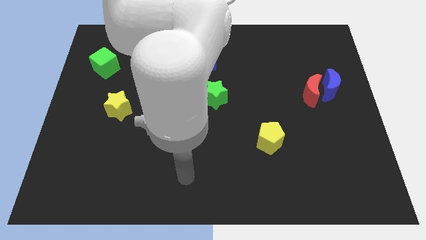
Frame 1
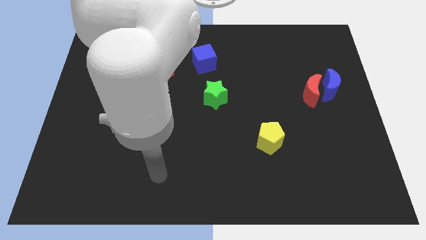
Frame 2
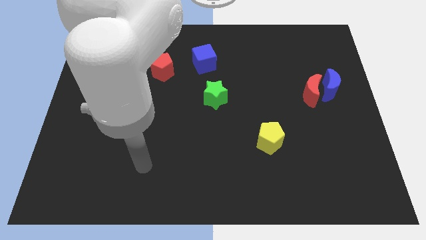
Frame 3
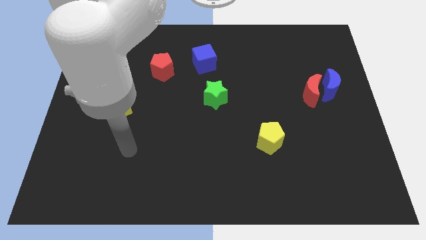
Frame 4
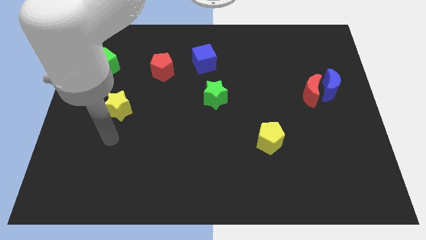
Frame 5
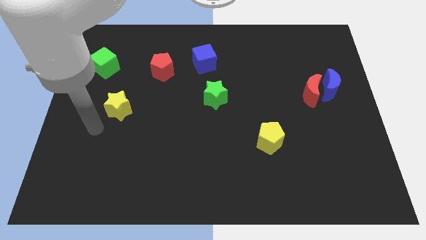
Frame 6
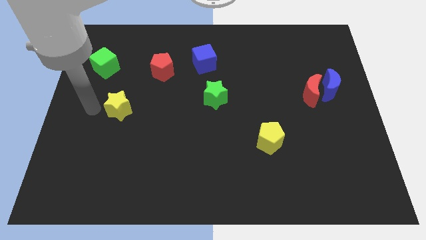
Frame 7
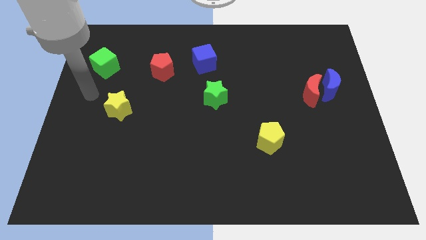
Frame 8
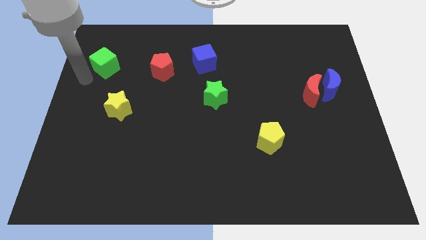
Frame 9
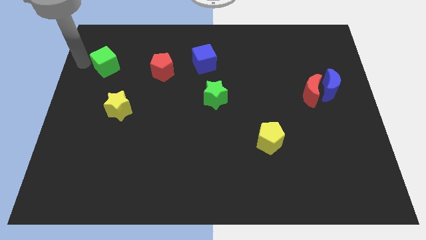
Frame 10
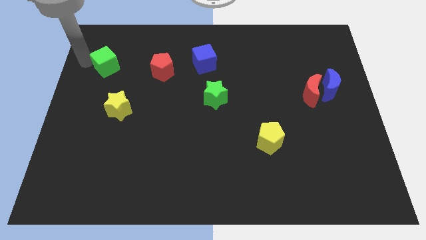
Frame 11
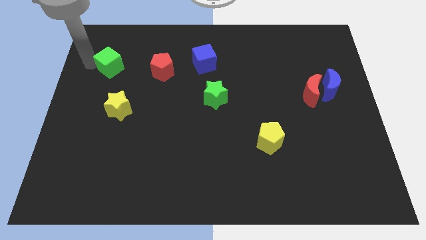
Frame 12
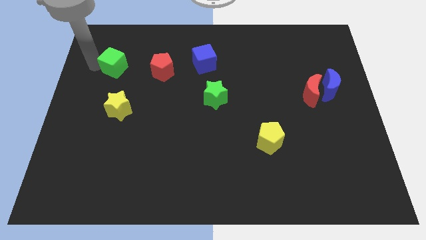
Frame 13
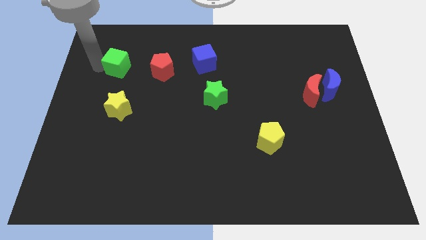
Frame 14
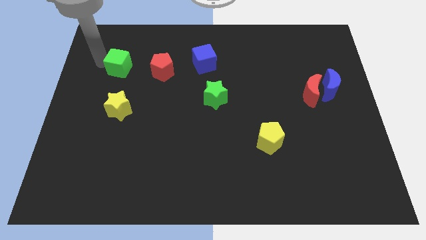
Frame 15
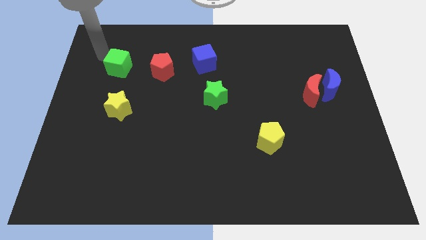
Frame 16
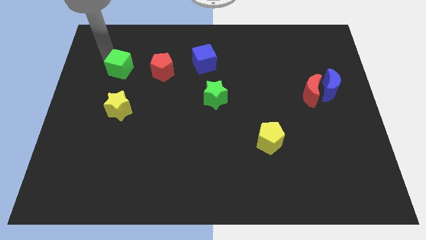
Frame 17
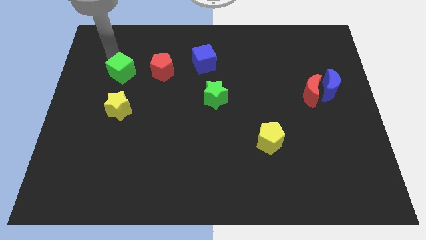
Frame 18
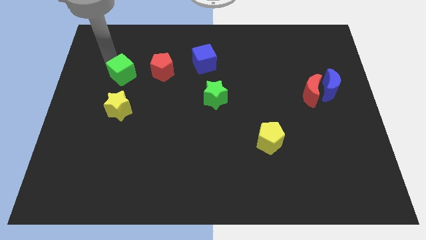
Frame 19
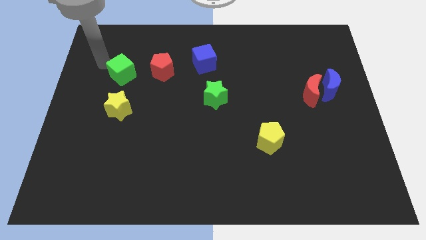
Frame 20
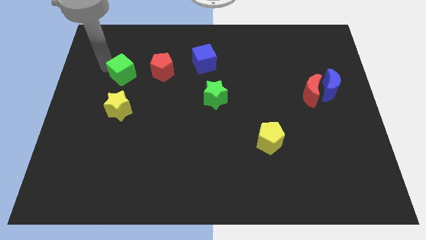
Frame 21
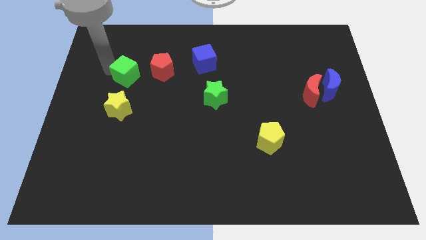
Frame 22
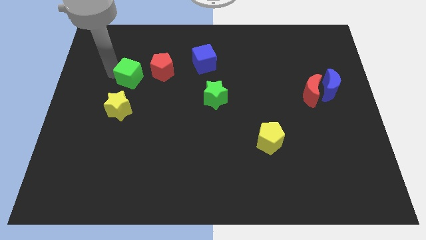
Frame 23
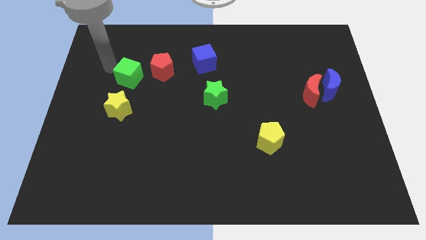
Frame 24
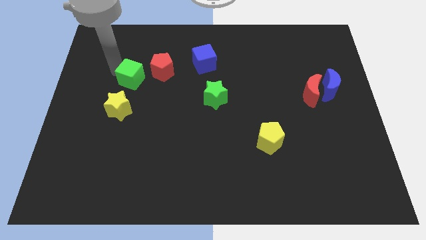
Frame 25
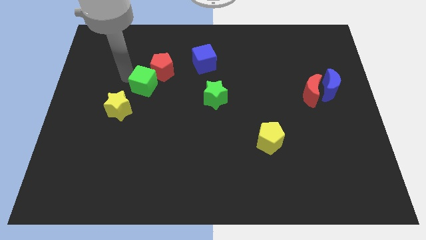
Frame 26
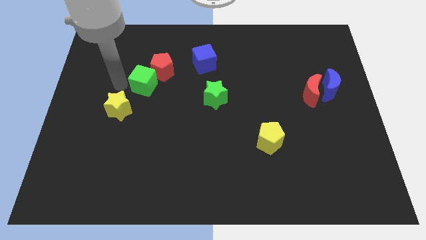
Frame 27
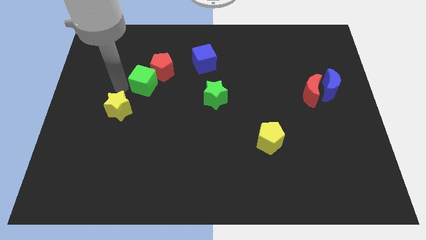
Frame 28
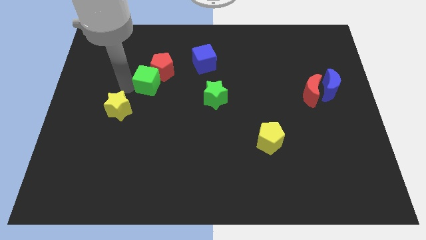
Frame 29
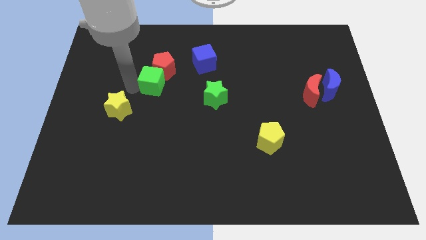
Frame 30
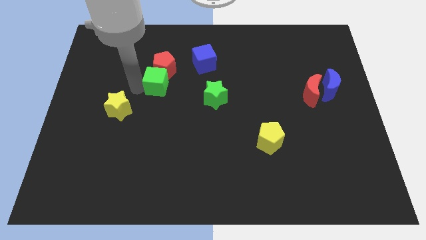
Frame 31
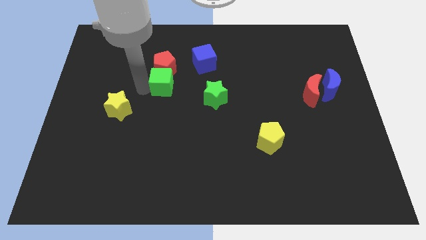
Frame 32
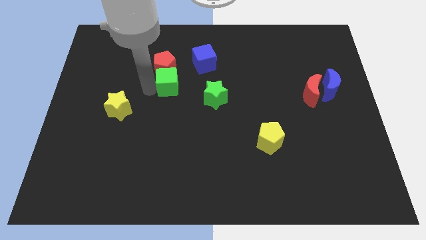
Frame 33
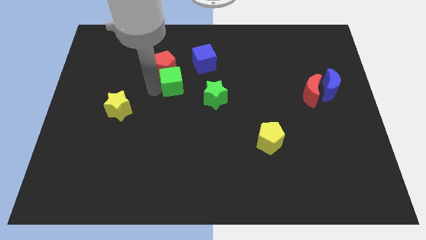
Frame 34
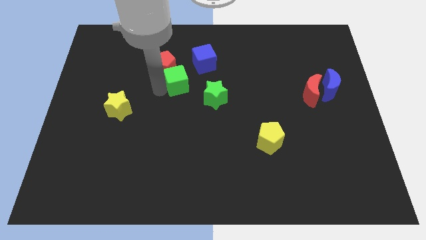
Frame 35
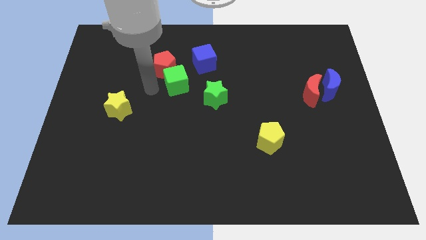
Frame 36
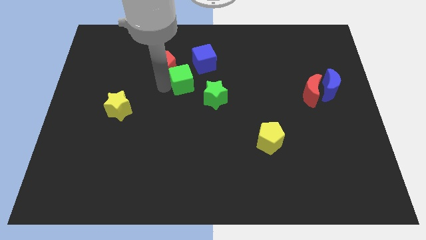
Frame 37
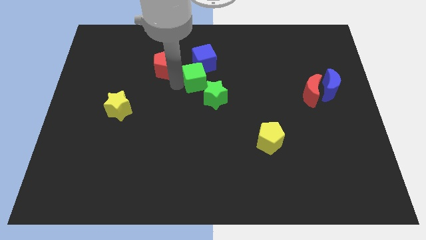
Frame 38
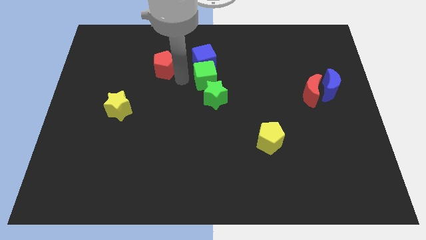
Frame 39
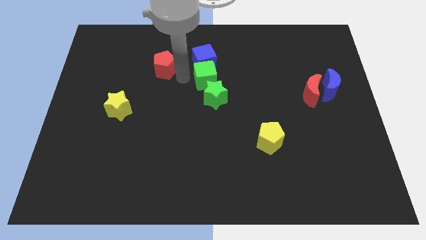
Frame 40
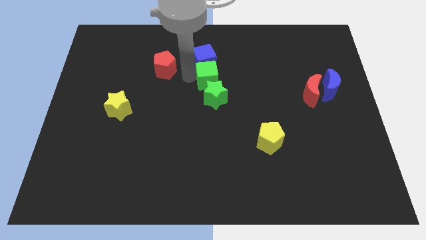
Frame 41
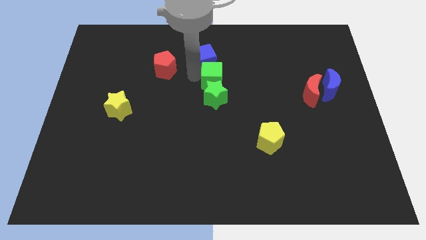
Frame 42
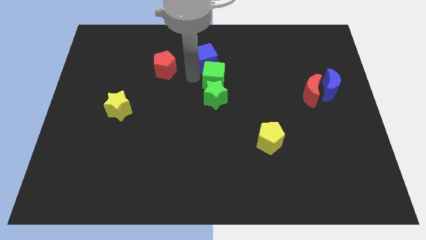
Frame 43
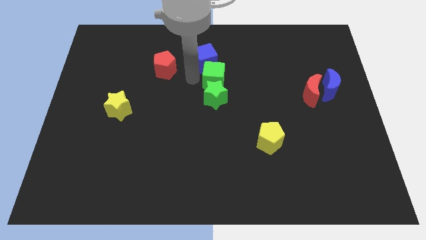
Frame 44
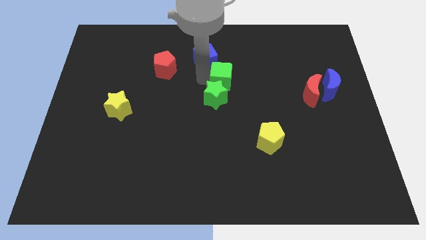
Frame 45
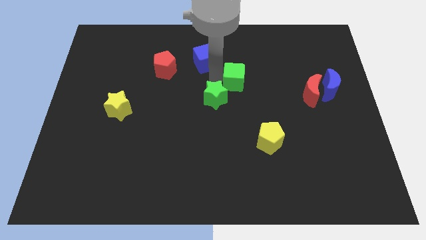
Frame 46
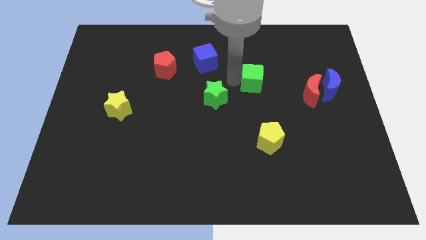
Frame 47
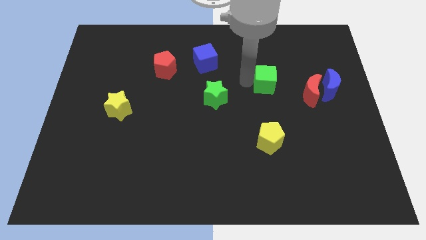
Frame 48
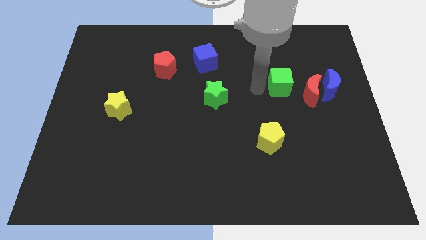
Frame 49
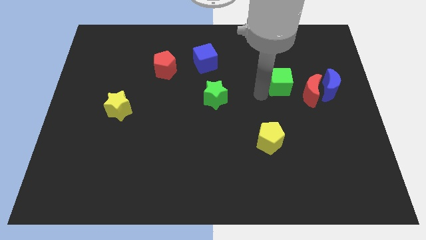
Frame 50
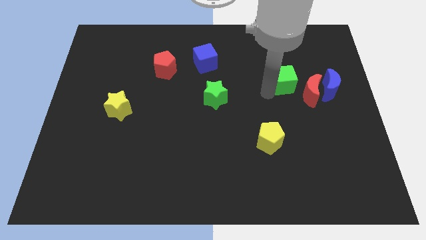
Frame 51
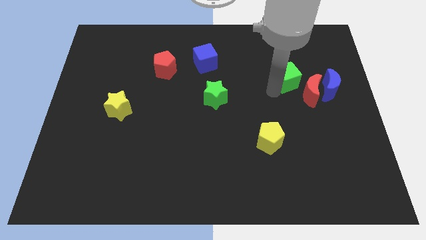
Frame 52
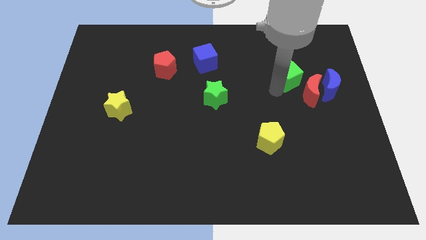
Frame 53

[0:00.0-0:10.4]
move the green cube to the top left of the blue moon

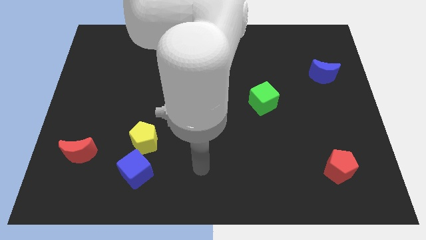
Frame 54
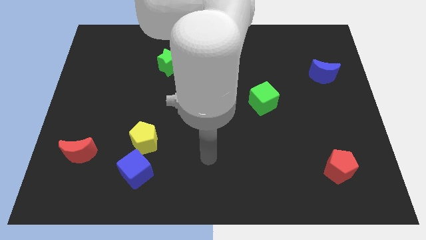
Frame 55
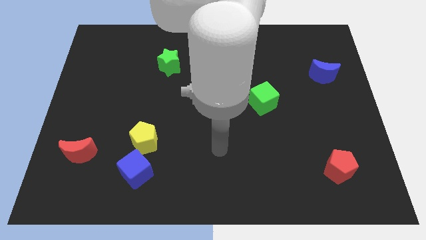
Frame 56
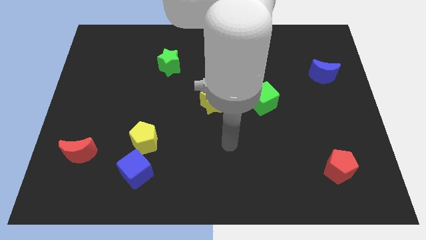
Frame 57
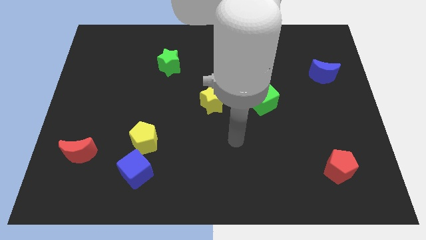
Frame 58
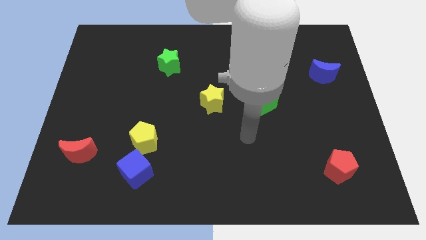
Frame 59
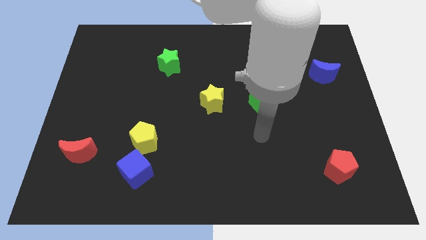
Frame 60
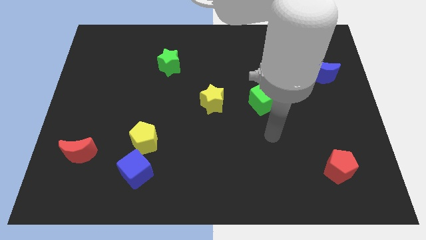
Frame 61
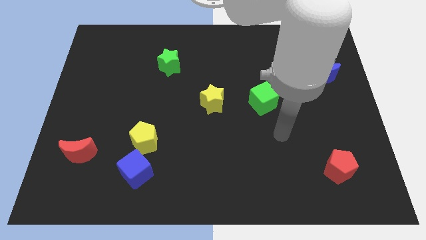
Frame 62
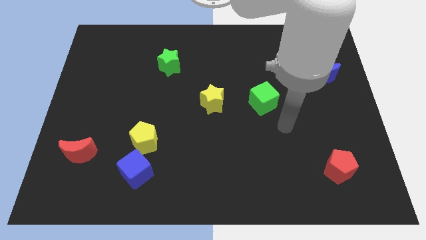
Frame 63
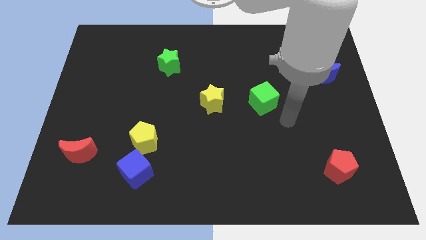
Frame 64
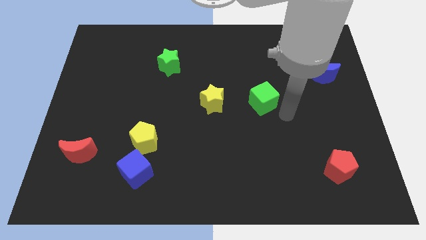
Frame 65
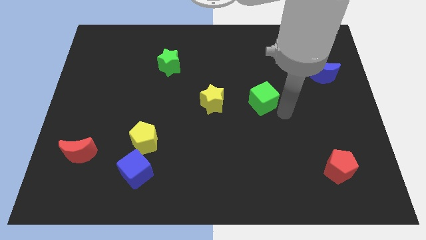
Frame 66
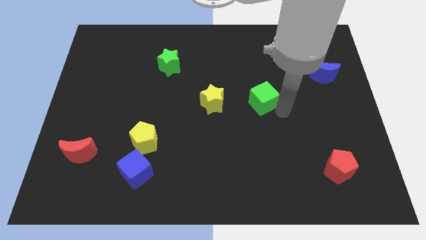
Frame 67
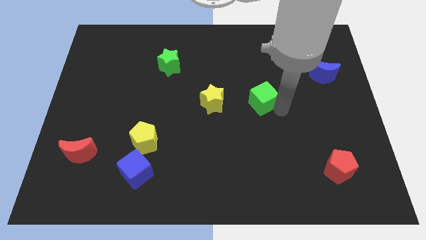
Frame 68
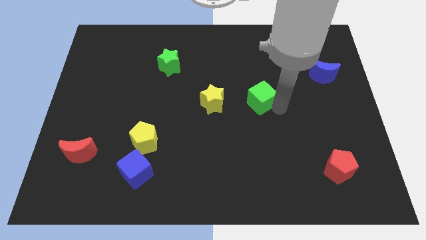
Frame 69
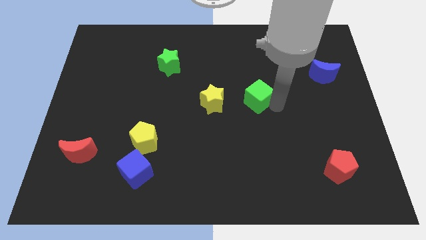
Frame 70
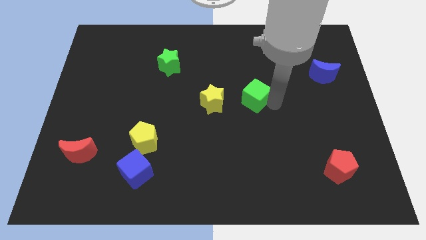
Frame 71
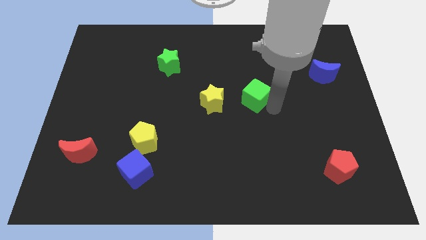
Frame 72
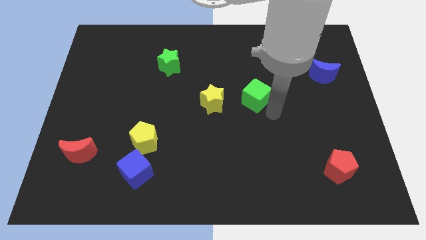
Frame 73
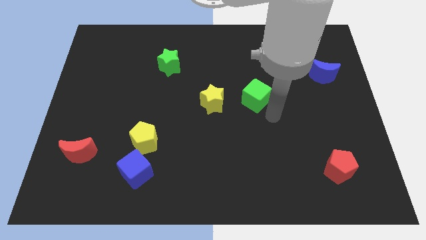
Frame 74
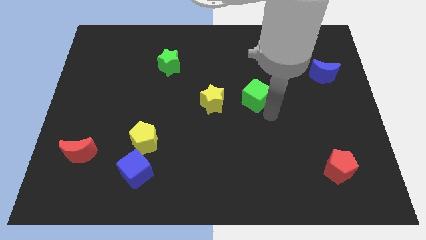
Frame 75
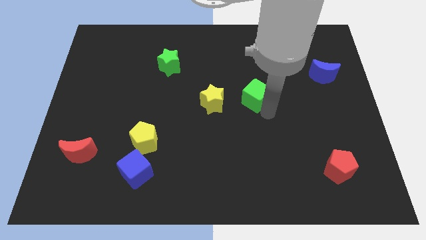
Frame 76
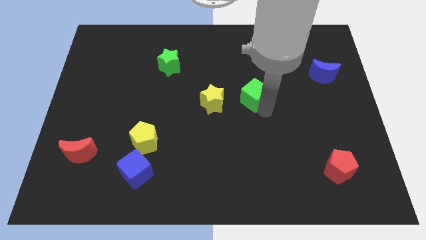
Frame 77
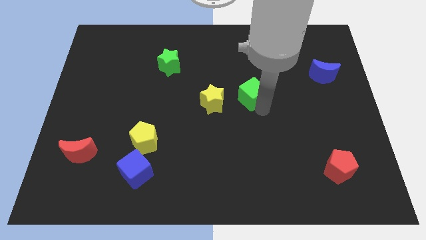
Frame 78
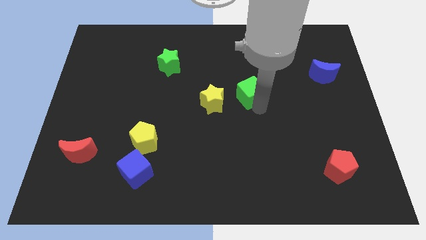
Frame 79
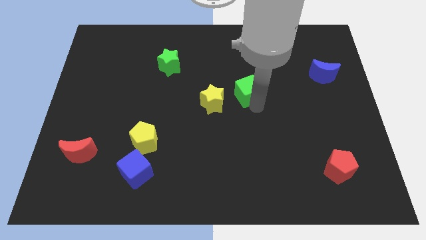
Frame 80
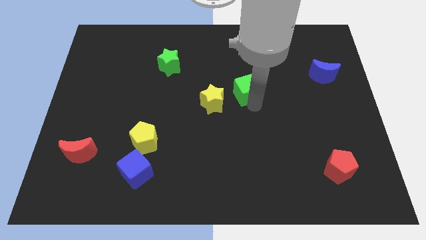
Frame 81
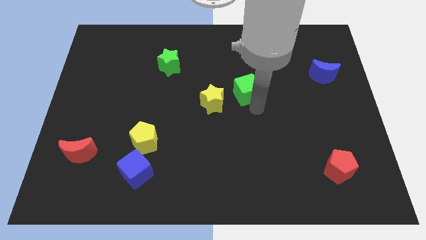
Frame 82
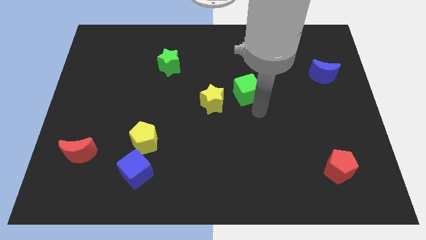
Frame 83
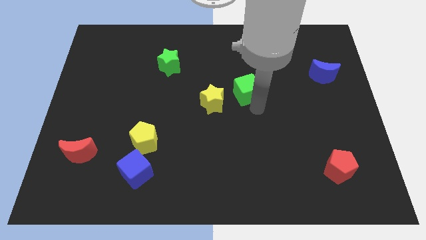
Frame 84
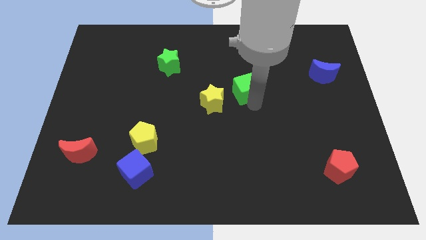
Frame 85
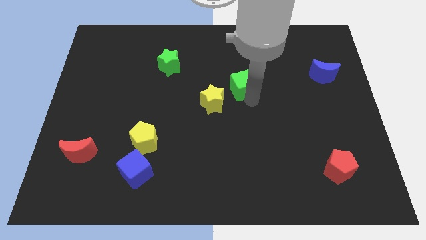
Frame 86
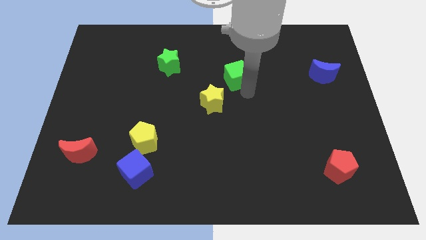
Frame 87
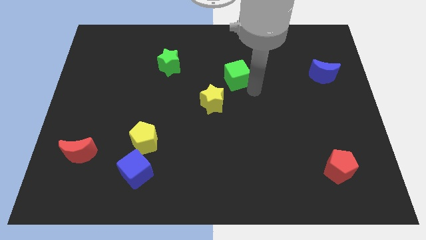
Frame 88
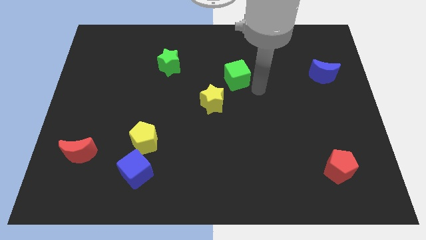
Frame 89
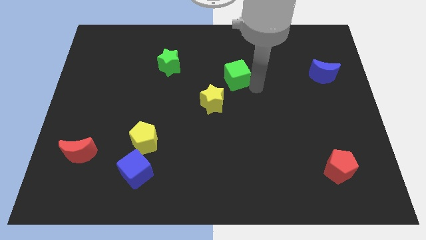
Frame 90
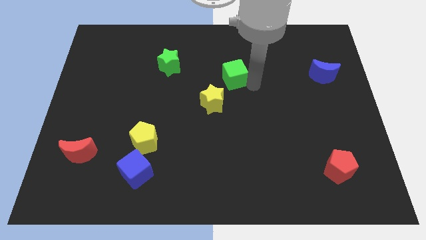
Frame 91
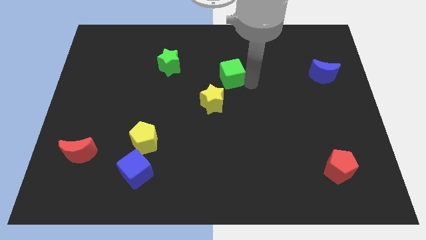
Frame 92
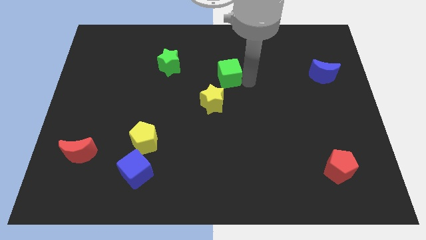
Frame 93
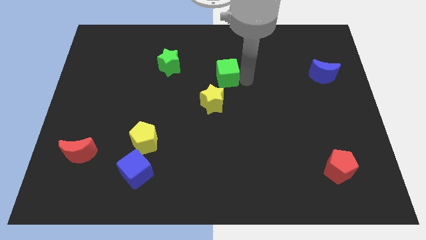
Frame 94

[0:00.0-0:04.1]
slide the green cube to the right side of the green star
